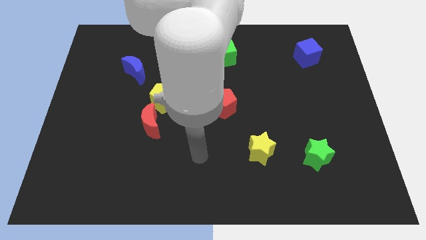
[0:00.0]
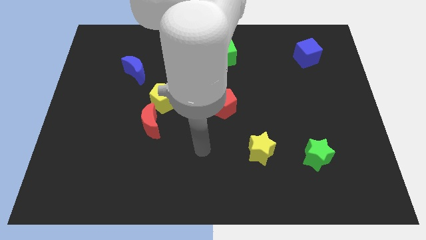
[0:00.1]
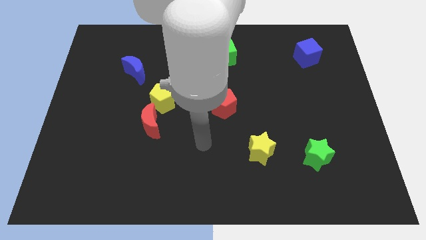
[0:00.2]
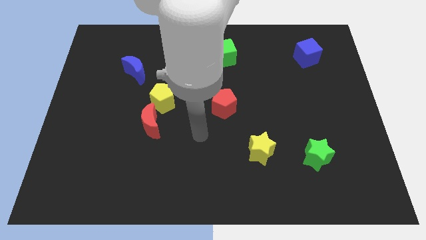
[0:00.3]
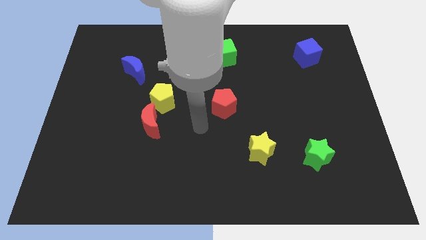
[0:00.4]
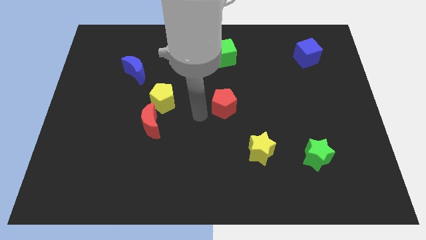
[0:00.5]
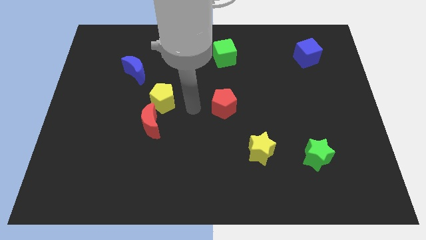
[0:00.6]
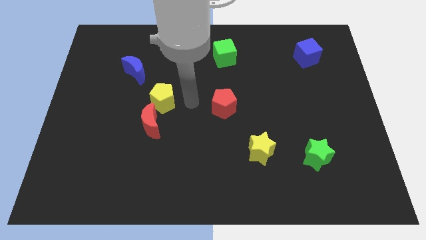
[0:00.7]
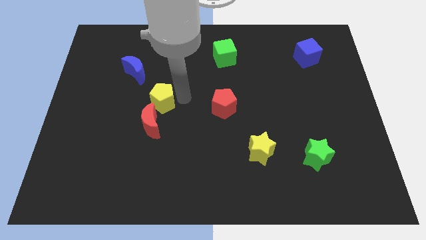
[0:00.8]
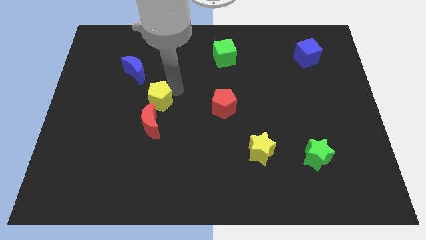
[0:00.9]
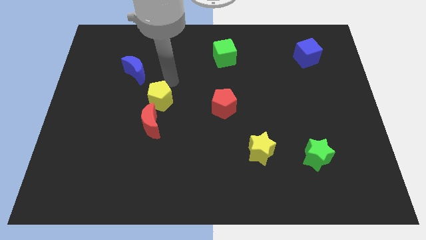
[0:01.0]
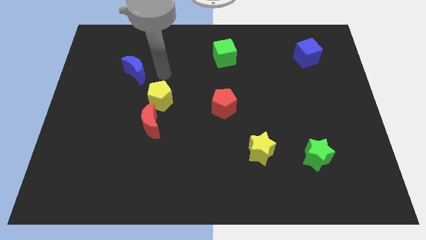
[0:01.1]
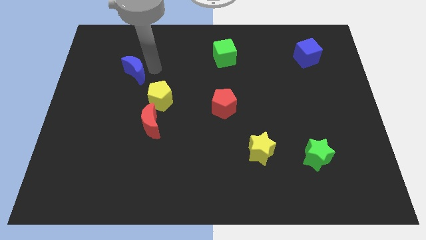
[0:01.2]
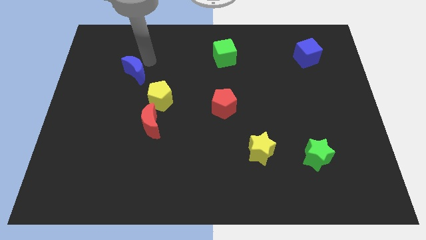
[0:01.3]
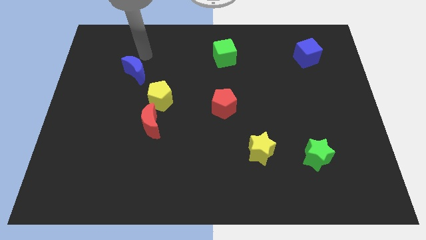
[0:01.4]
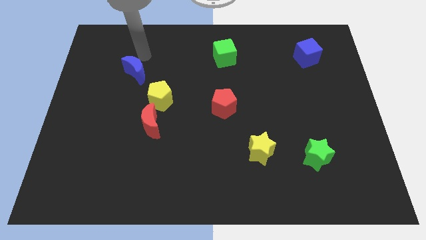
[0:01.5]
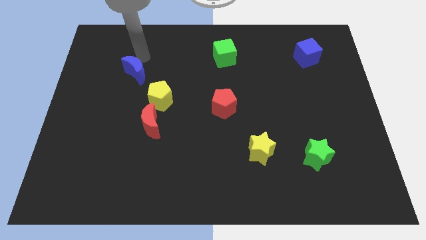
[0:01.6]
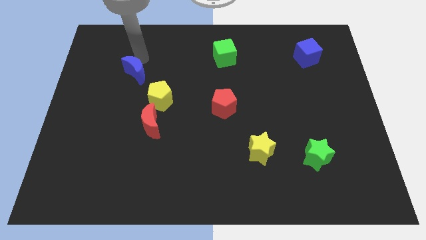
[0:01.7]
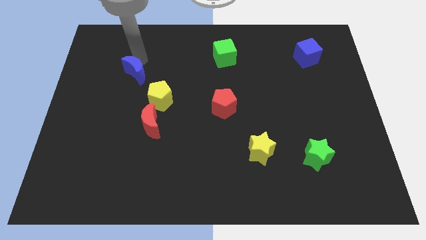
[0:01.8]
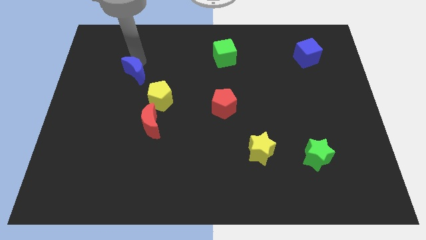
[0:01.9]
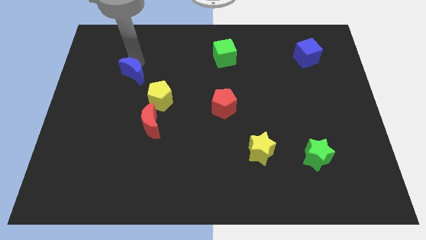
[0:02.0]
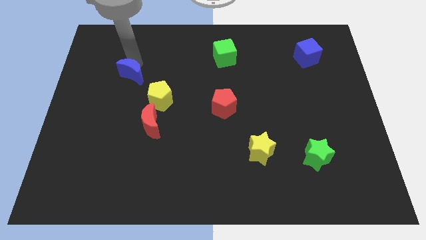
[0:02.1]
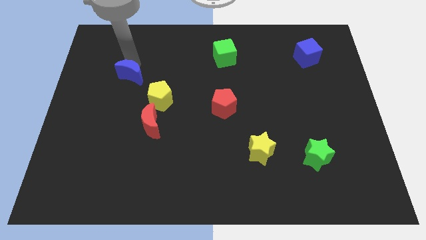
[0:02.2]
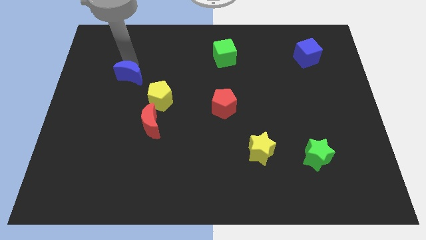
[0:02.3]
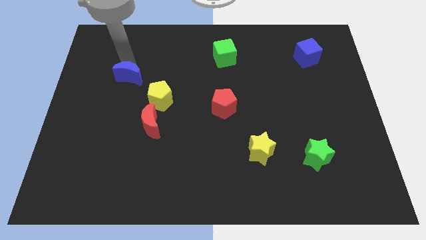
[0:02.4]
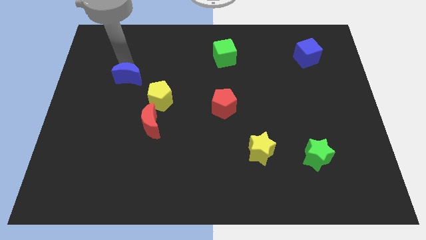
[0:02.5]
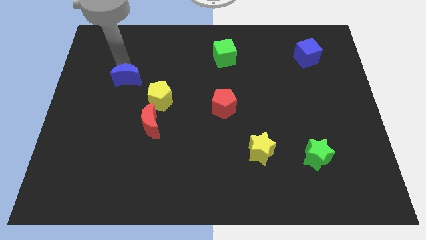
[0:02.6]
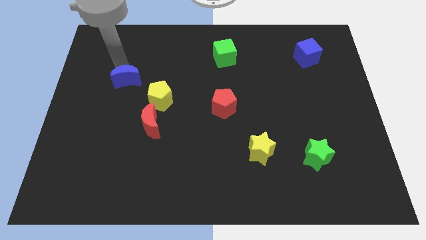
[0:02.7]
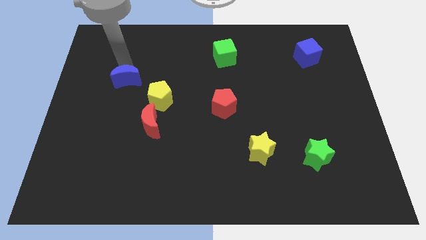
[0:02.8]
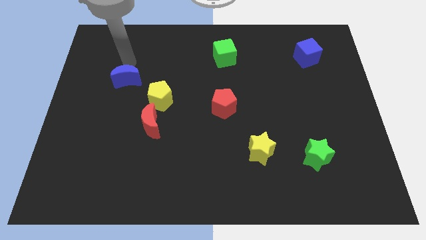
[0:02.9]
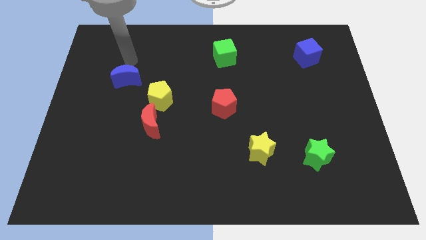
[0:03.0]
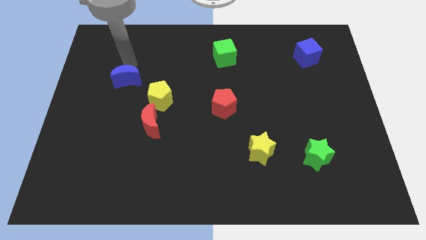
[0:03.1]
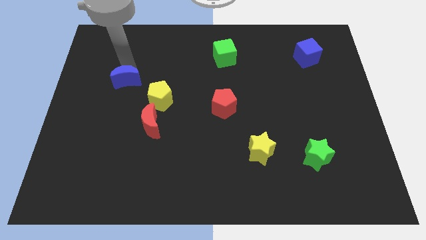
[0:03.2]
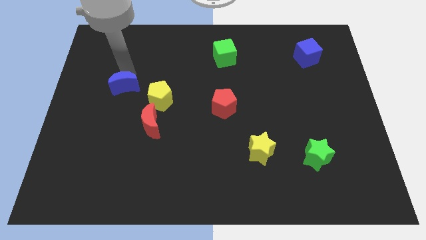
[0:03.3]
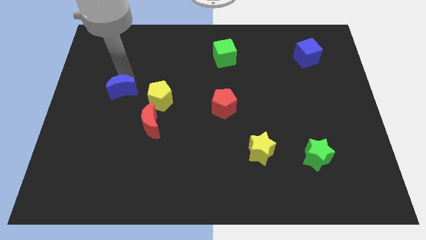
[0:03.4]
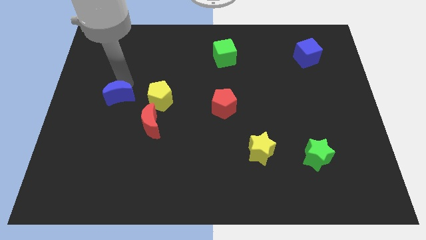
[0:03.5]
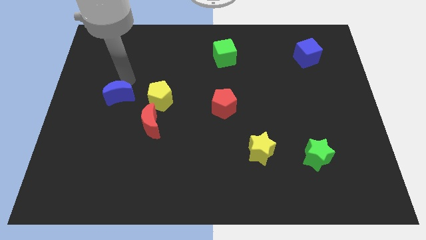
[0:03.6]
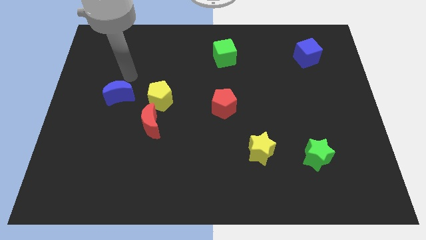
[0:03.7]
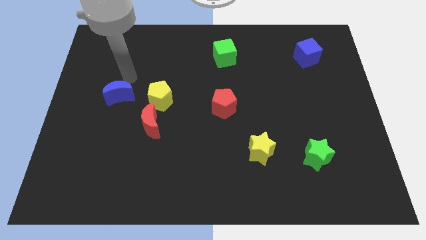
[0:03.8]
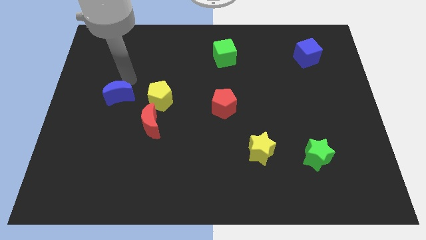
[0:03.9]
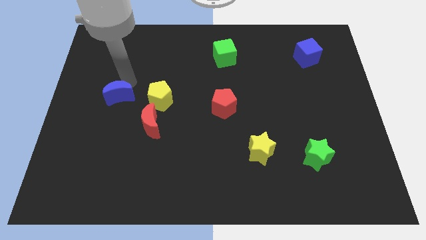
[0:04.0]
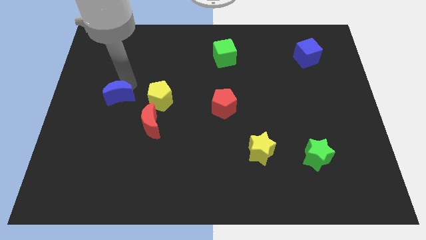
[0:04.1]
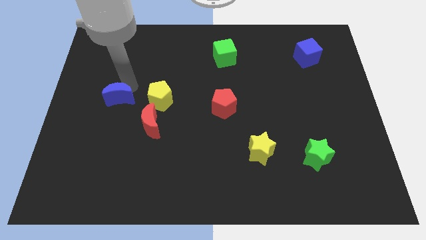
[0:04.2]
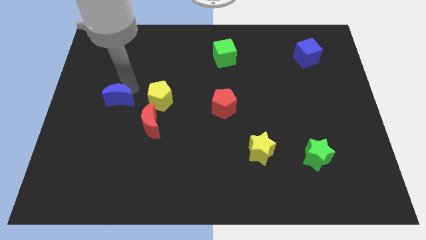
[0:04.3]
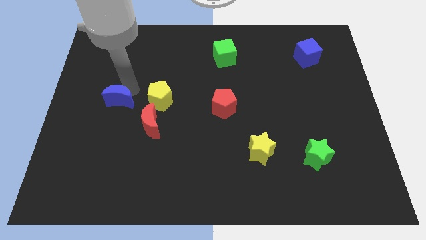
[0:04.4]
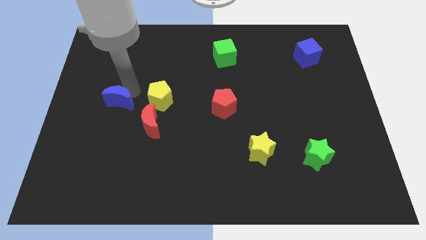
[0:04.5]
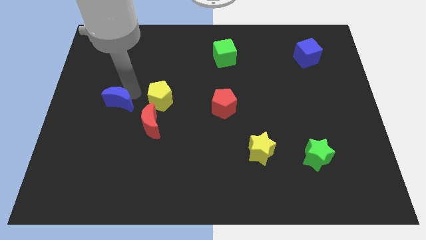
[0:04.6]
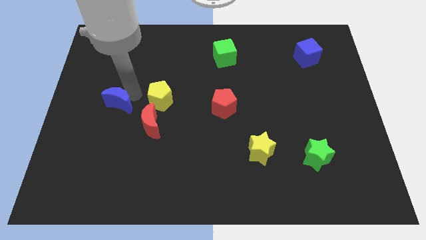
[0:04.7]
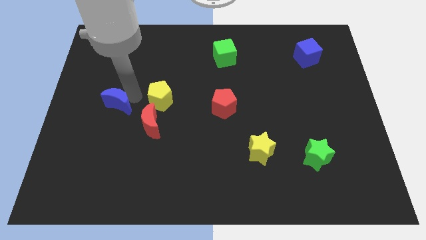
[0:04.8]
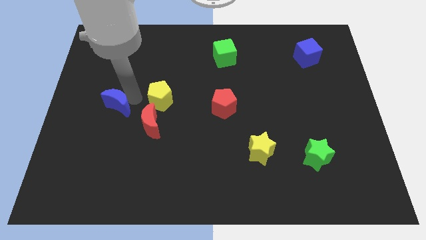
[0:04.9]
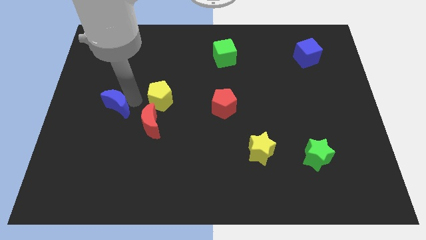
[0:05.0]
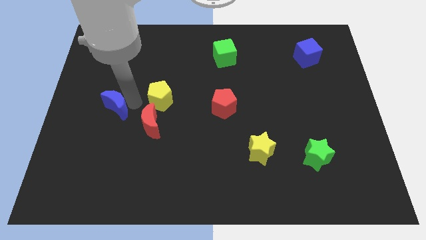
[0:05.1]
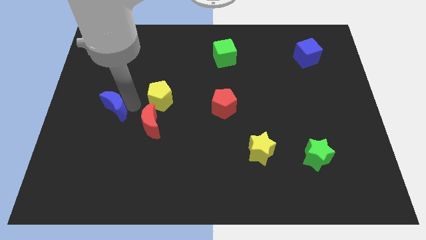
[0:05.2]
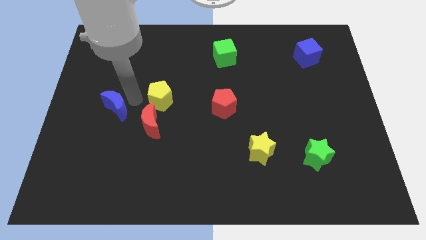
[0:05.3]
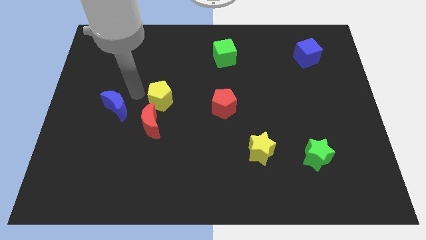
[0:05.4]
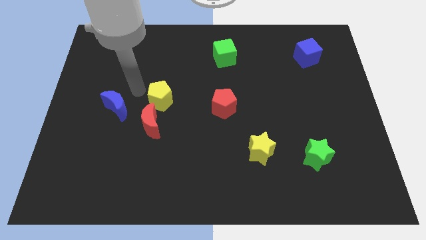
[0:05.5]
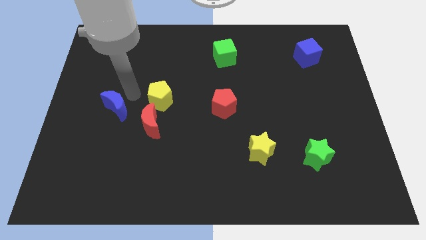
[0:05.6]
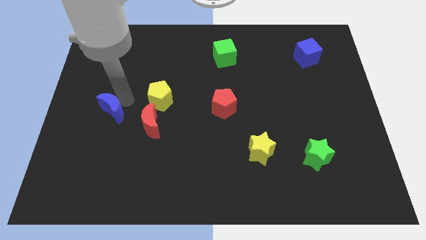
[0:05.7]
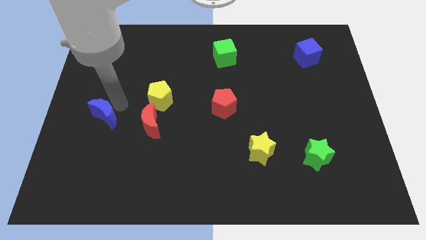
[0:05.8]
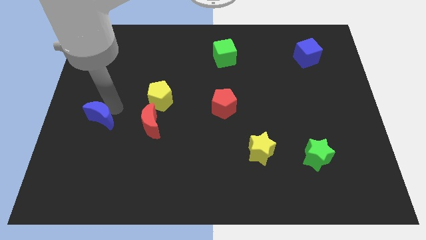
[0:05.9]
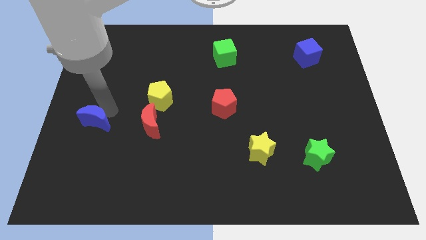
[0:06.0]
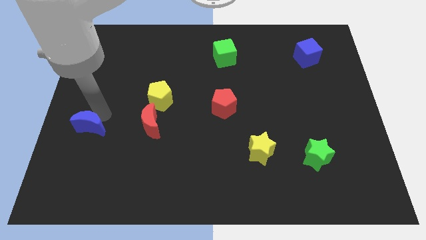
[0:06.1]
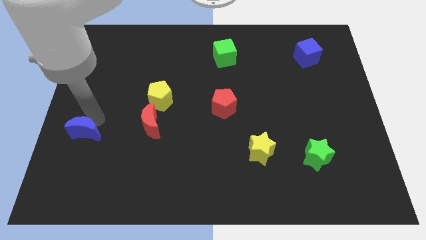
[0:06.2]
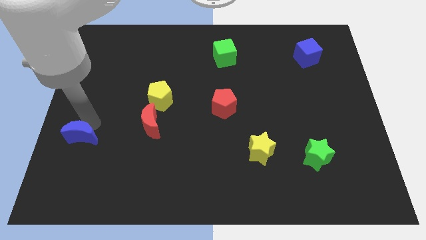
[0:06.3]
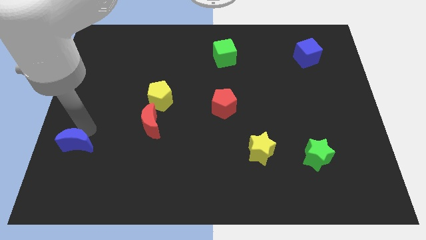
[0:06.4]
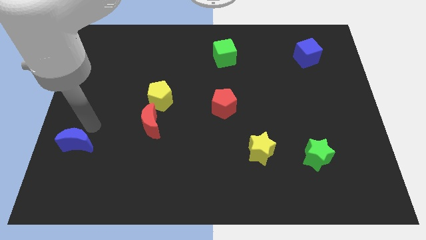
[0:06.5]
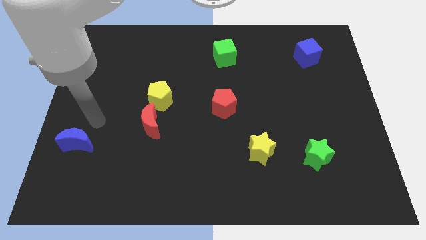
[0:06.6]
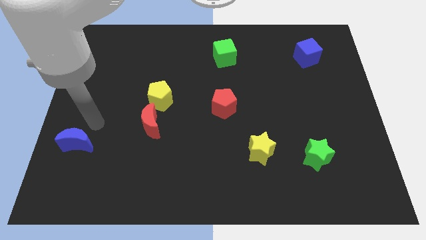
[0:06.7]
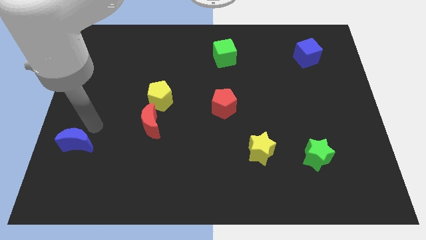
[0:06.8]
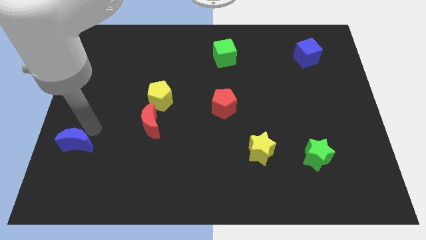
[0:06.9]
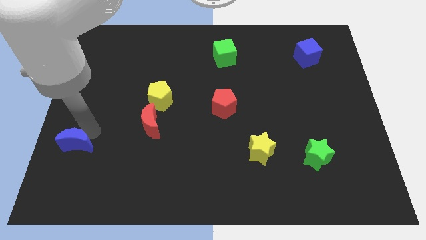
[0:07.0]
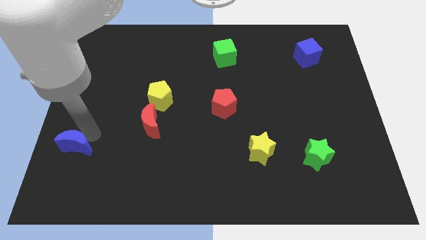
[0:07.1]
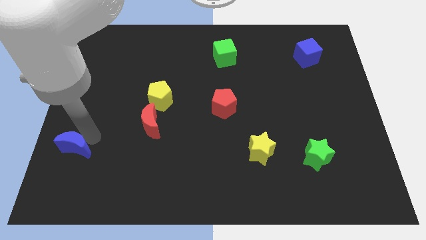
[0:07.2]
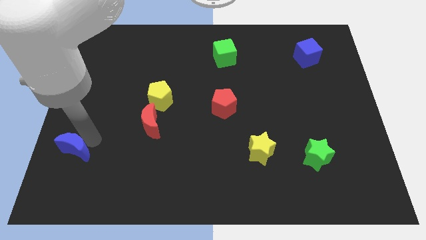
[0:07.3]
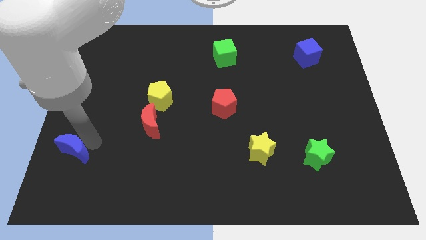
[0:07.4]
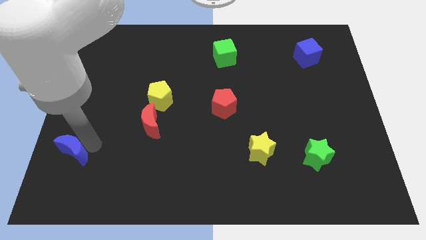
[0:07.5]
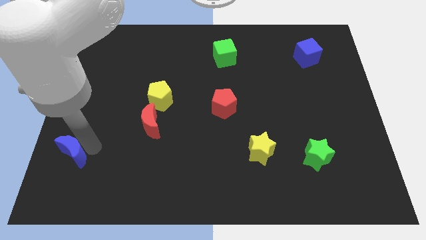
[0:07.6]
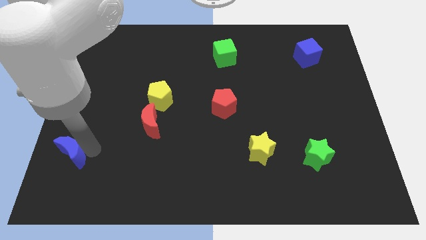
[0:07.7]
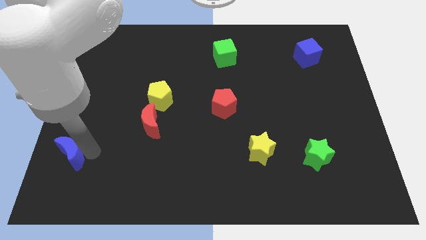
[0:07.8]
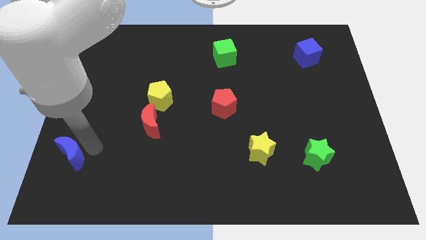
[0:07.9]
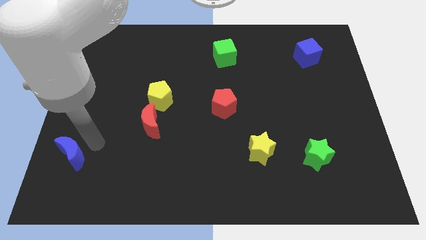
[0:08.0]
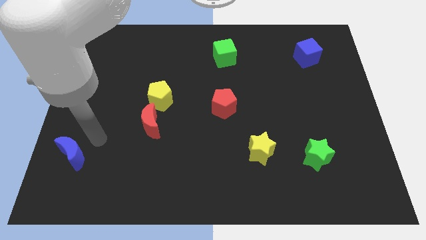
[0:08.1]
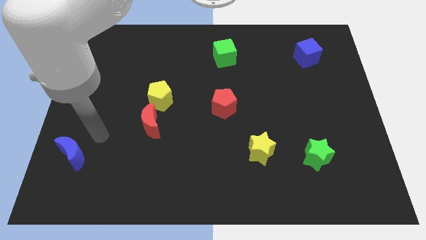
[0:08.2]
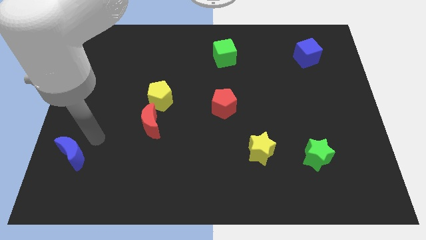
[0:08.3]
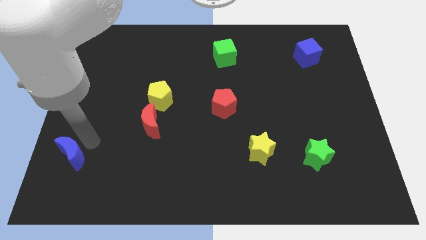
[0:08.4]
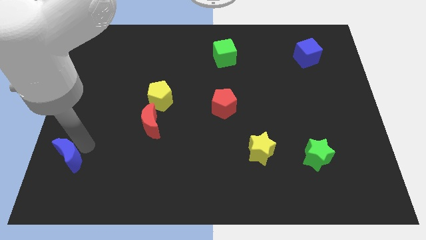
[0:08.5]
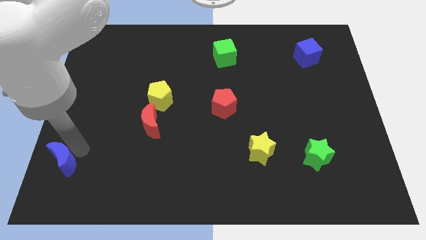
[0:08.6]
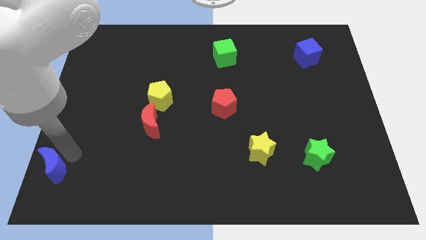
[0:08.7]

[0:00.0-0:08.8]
slide the blue moon to the bottom left
